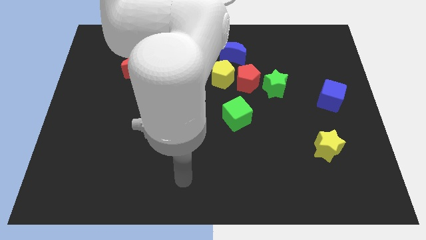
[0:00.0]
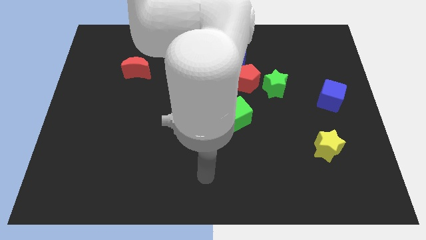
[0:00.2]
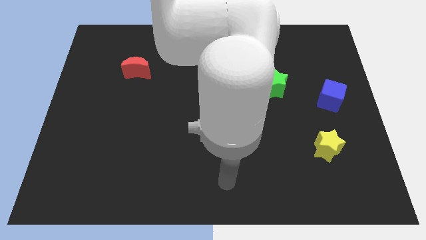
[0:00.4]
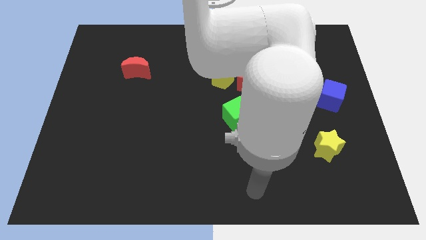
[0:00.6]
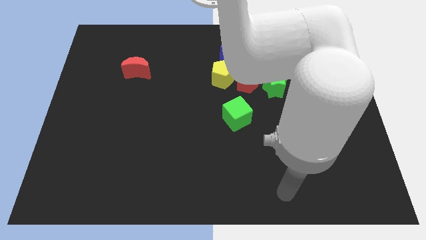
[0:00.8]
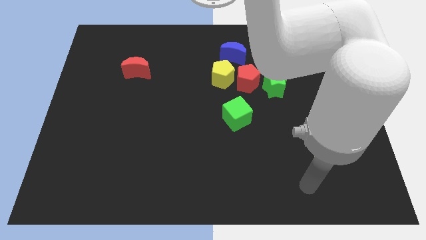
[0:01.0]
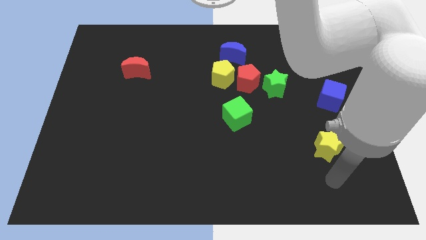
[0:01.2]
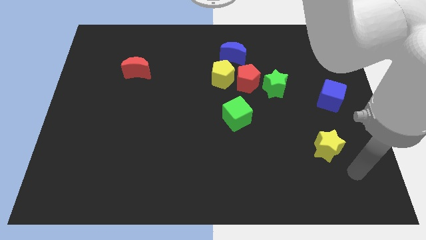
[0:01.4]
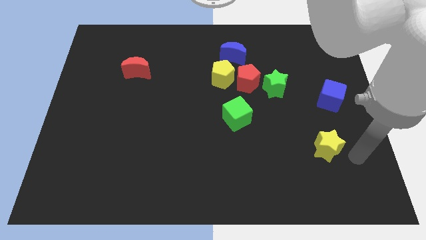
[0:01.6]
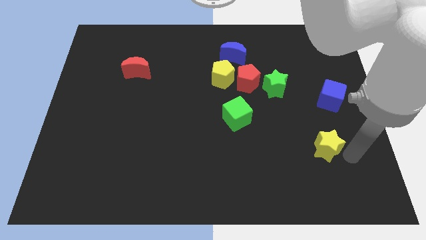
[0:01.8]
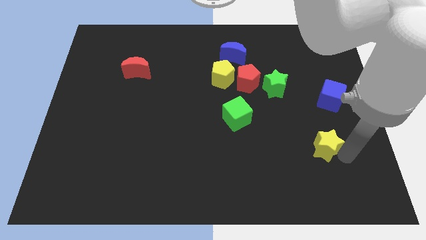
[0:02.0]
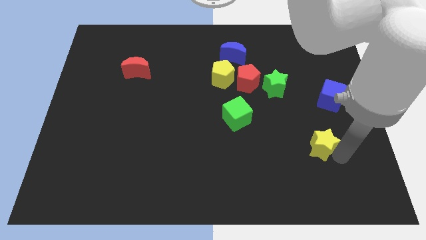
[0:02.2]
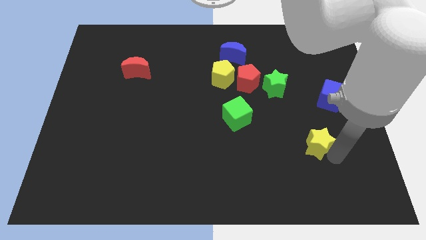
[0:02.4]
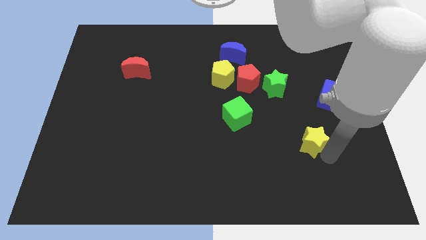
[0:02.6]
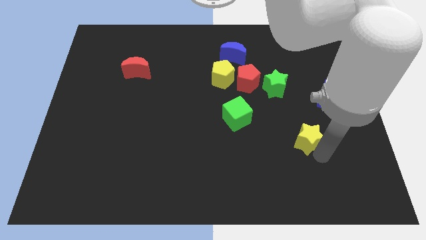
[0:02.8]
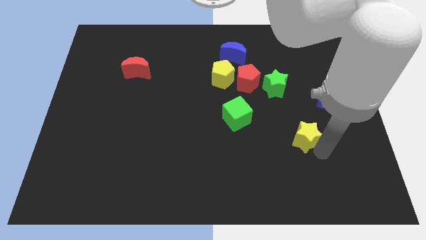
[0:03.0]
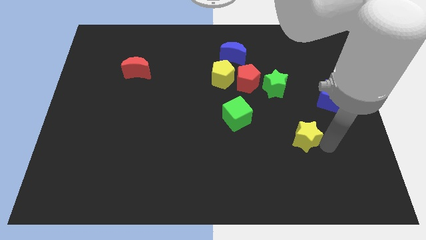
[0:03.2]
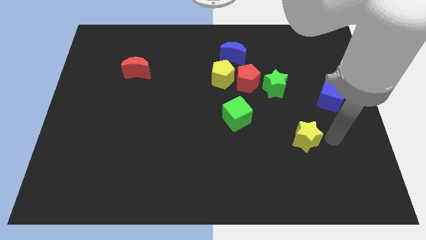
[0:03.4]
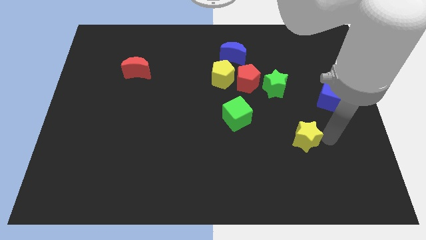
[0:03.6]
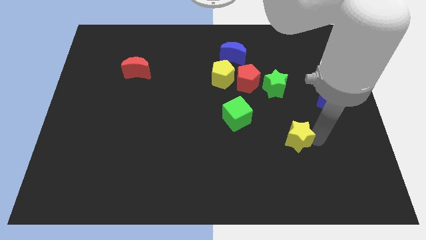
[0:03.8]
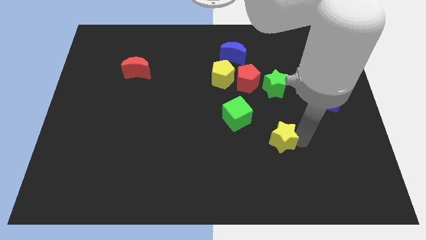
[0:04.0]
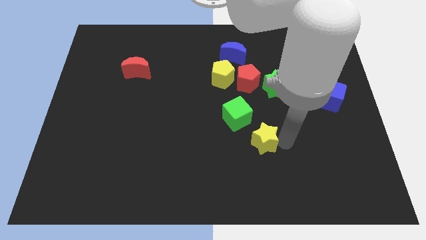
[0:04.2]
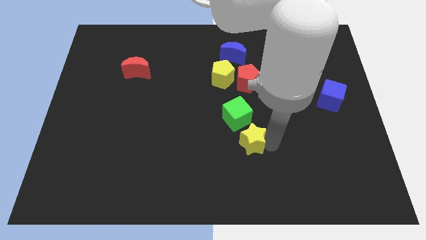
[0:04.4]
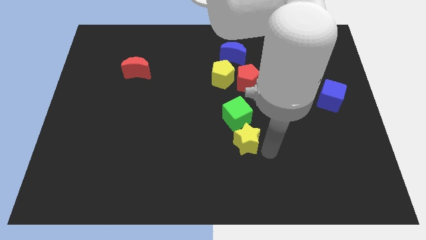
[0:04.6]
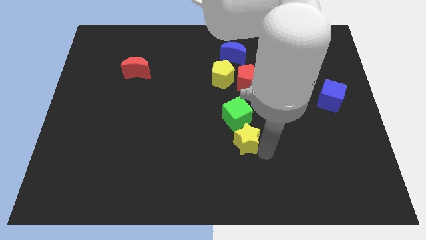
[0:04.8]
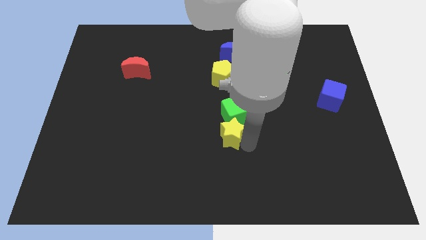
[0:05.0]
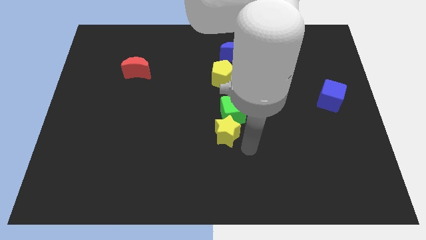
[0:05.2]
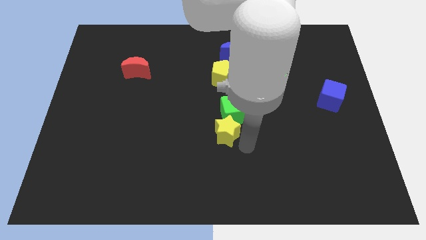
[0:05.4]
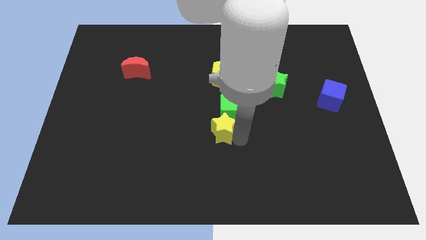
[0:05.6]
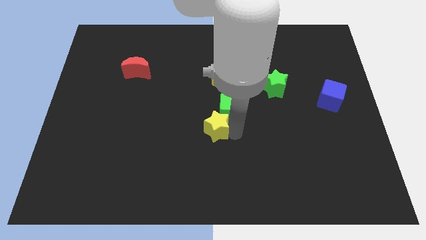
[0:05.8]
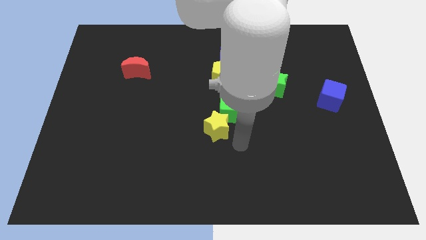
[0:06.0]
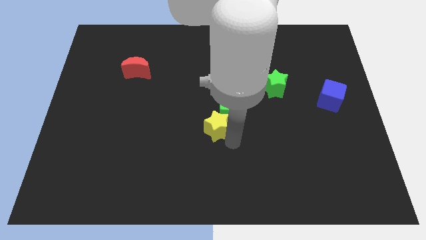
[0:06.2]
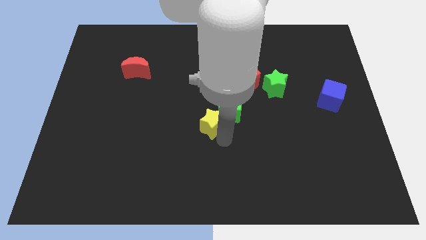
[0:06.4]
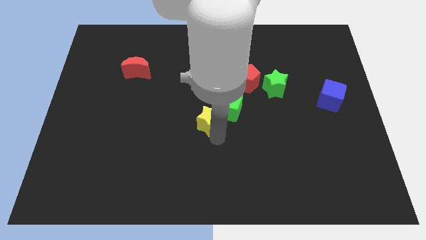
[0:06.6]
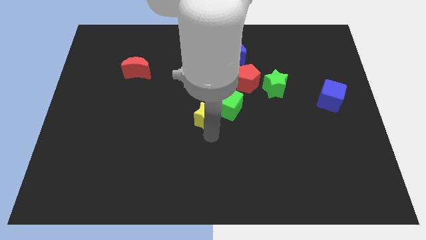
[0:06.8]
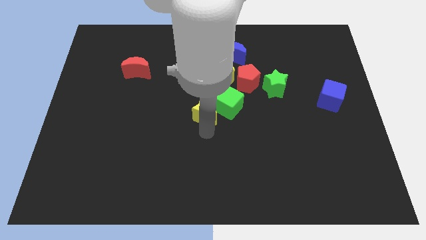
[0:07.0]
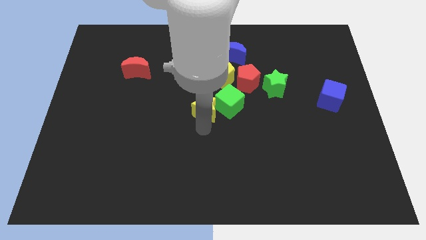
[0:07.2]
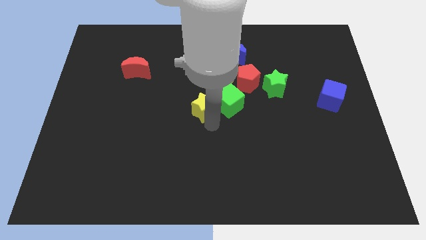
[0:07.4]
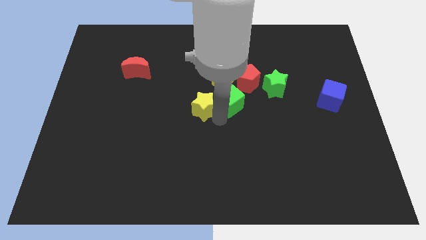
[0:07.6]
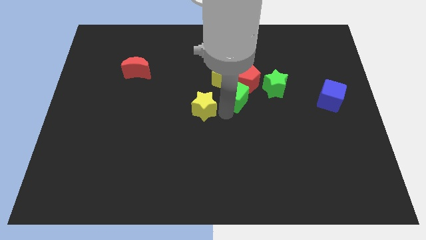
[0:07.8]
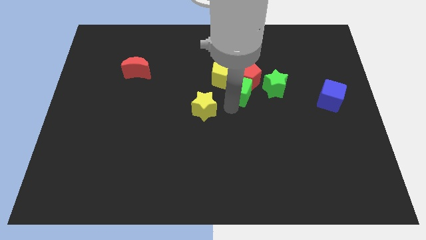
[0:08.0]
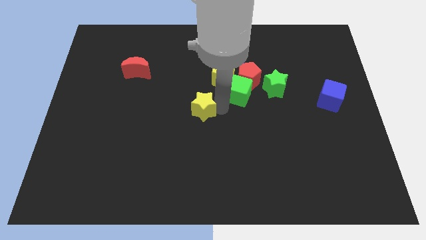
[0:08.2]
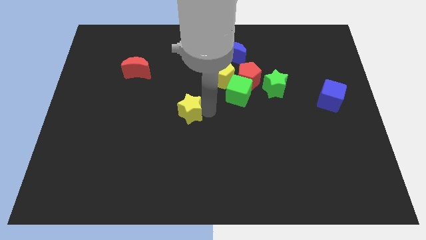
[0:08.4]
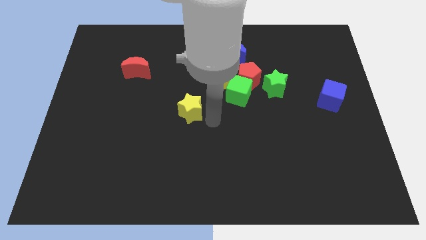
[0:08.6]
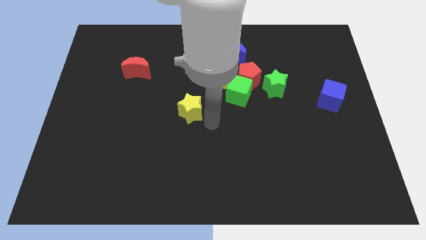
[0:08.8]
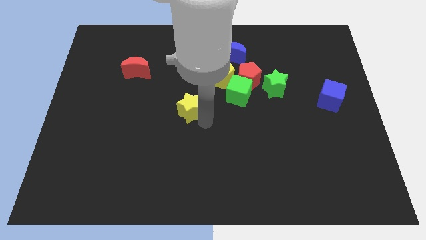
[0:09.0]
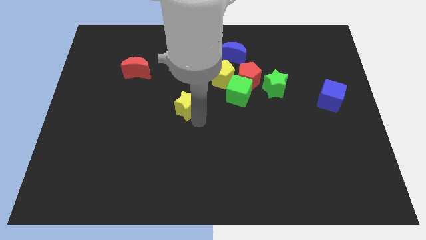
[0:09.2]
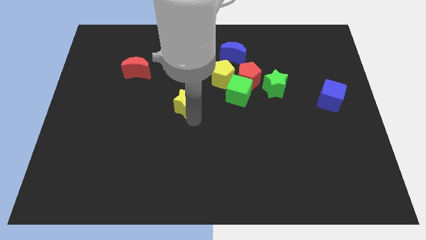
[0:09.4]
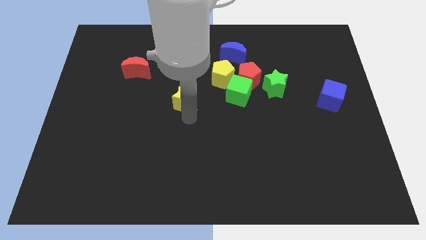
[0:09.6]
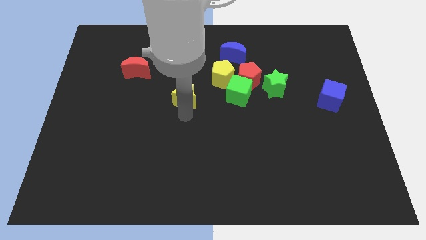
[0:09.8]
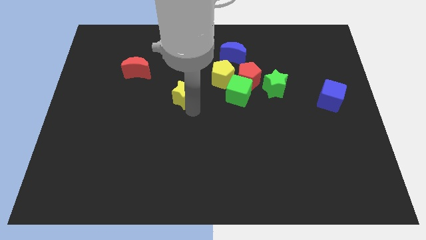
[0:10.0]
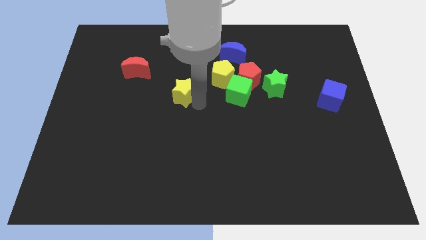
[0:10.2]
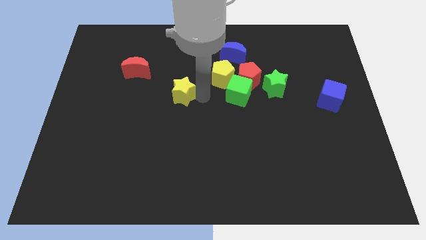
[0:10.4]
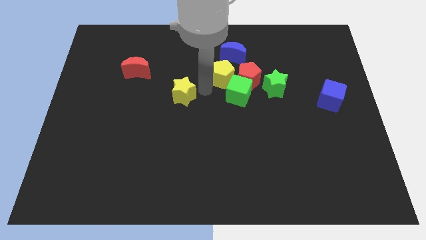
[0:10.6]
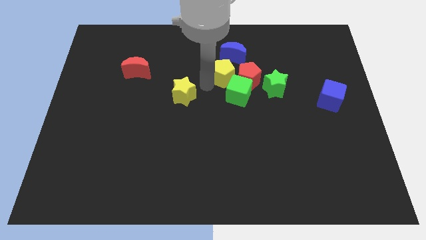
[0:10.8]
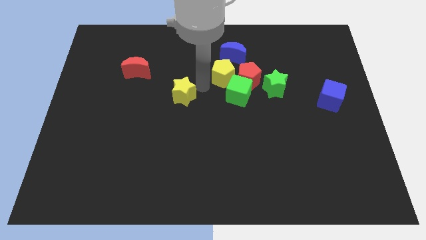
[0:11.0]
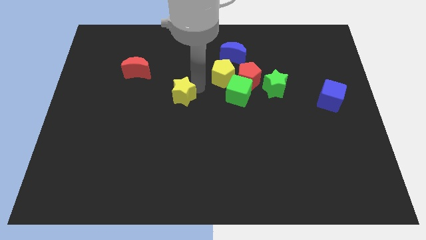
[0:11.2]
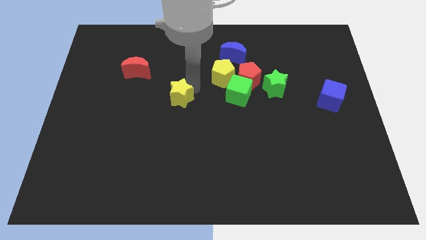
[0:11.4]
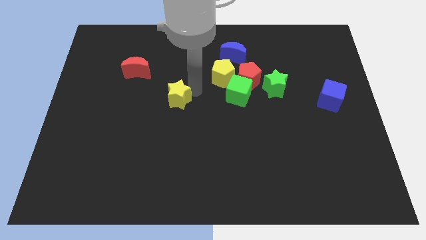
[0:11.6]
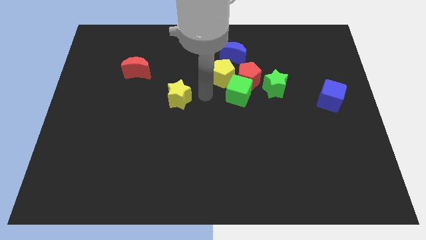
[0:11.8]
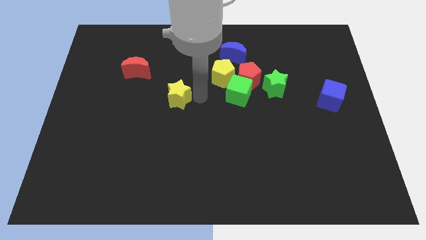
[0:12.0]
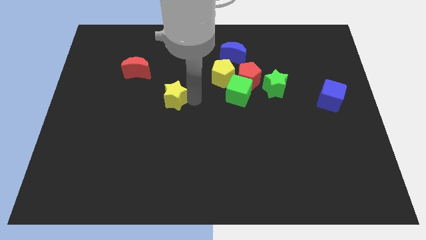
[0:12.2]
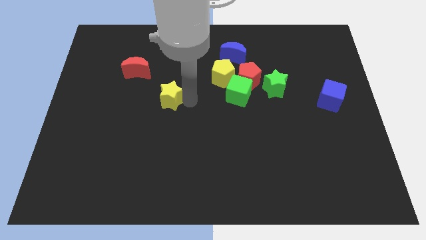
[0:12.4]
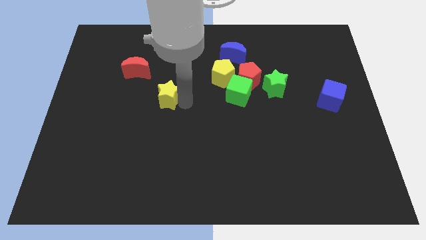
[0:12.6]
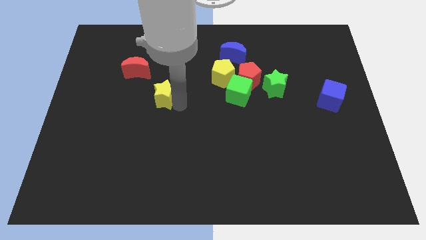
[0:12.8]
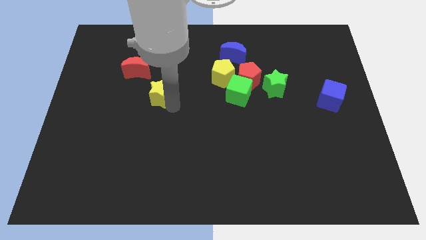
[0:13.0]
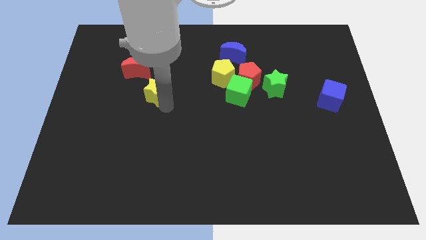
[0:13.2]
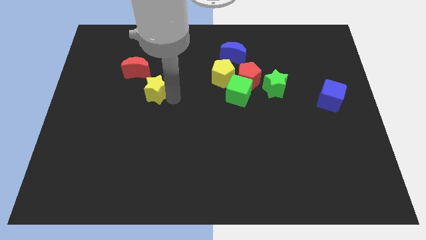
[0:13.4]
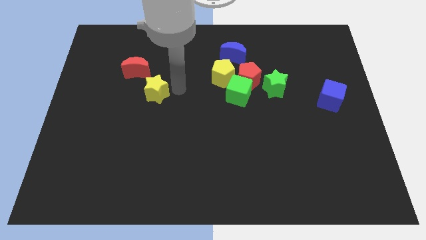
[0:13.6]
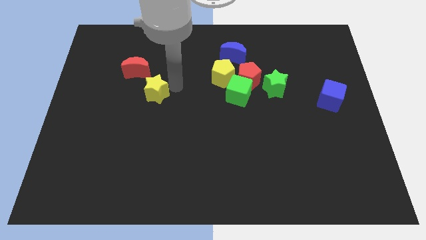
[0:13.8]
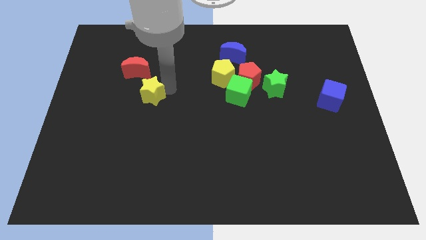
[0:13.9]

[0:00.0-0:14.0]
push the yellow star to the bottom of the red moon
